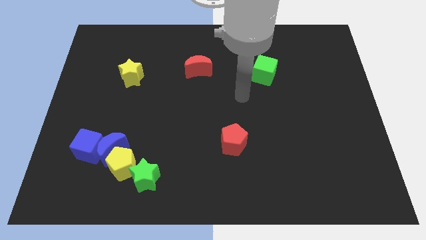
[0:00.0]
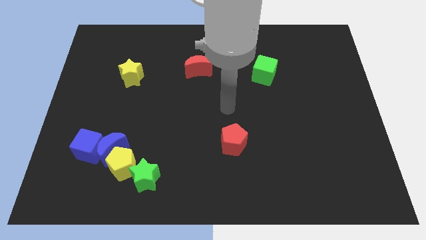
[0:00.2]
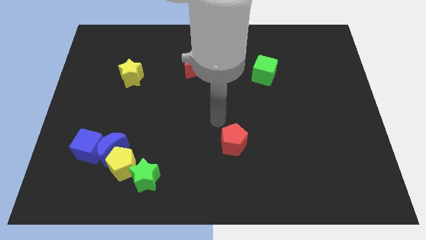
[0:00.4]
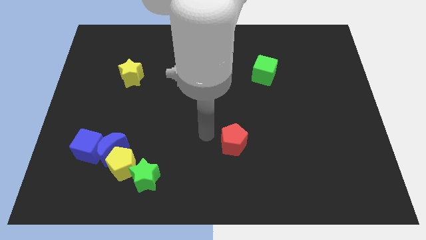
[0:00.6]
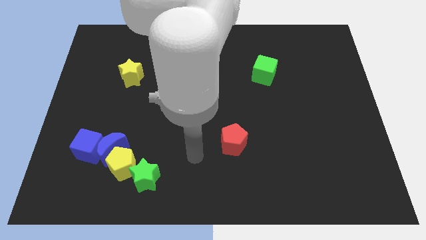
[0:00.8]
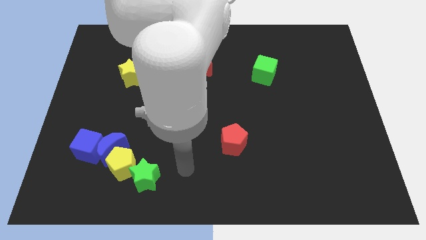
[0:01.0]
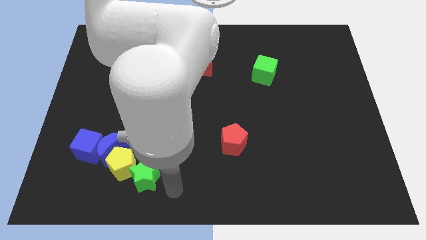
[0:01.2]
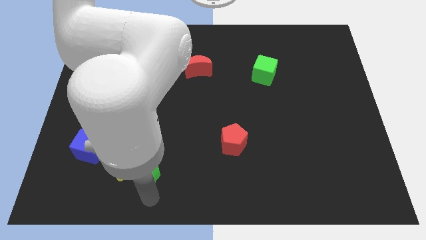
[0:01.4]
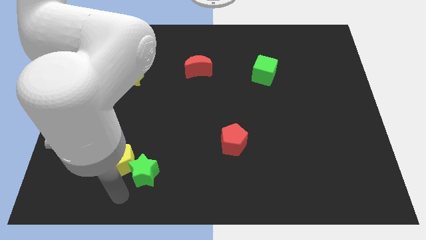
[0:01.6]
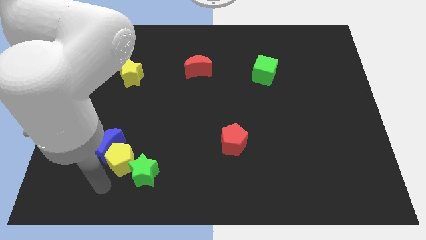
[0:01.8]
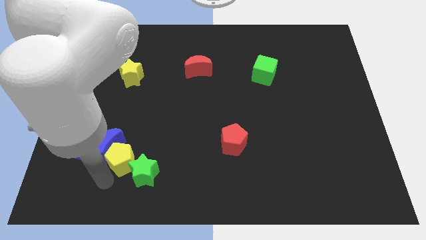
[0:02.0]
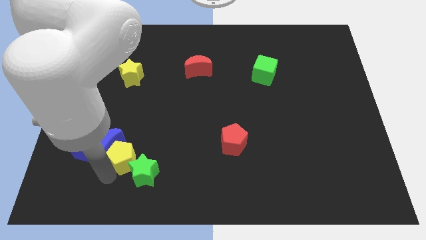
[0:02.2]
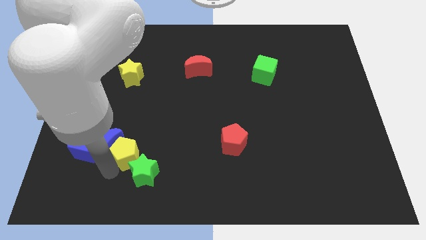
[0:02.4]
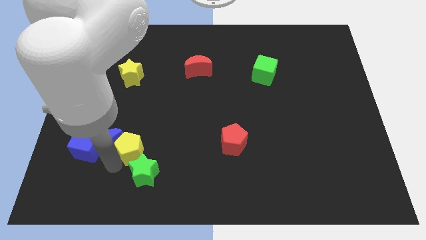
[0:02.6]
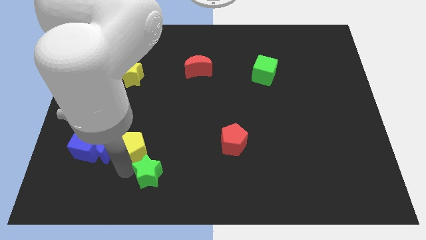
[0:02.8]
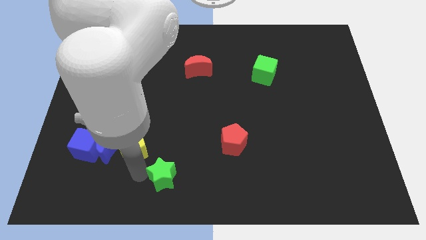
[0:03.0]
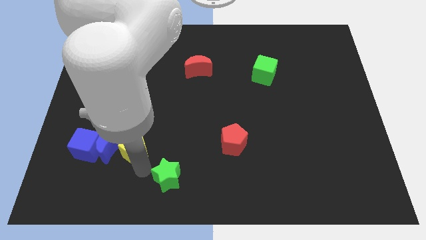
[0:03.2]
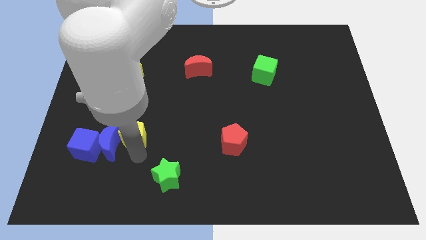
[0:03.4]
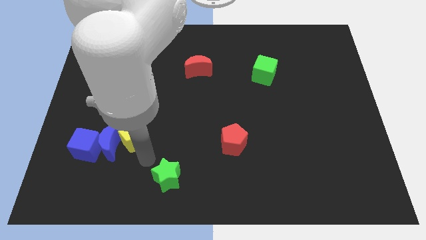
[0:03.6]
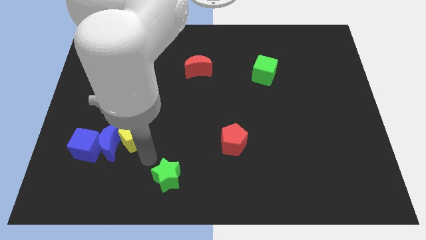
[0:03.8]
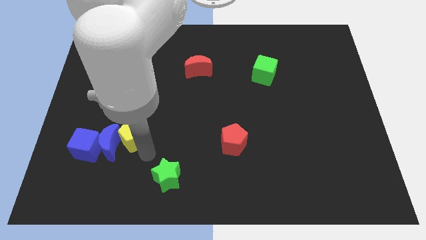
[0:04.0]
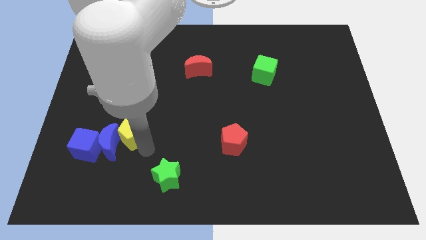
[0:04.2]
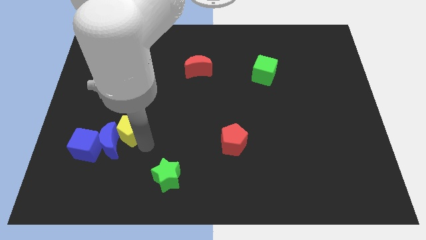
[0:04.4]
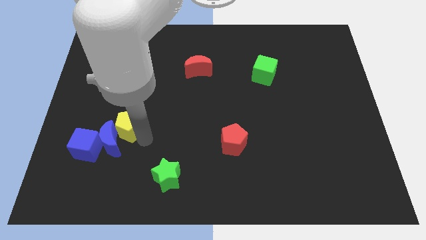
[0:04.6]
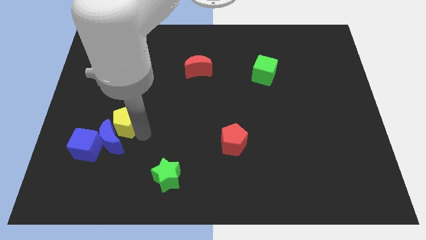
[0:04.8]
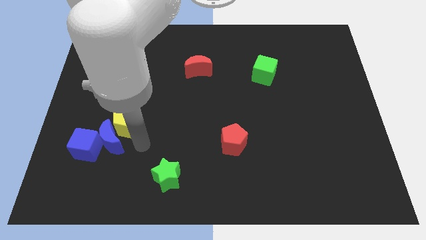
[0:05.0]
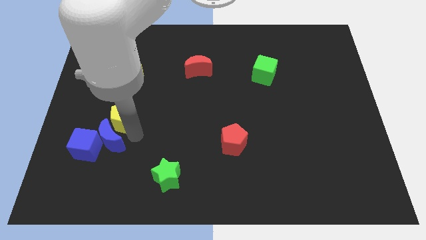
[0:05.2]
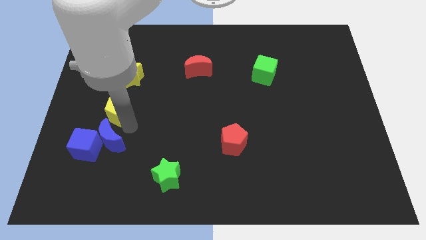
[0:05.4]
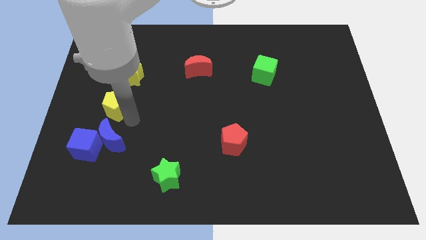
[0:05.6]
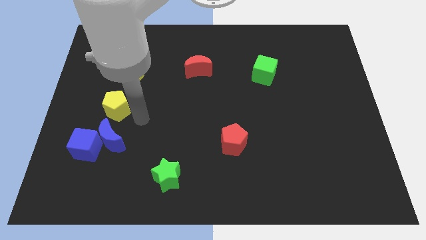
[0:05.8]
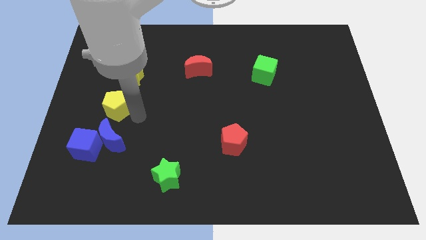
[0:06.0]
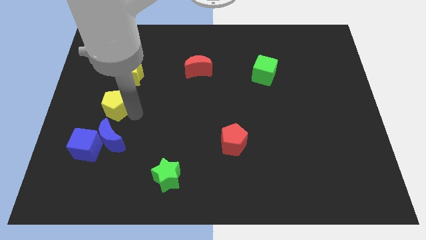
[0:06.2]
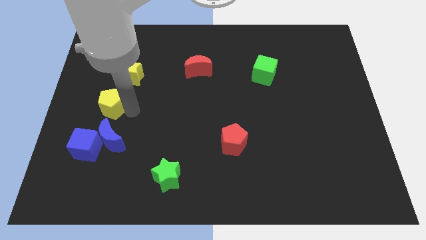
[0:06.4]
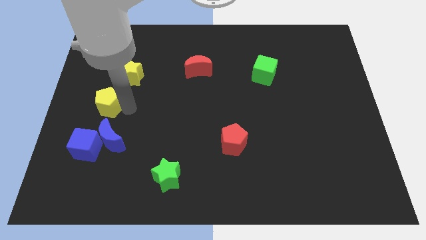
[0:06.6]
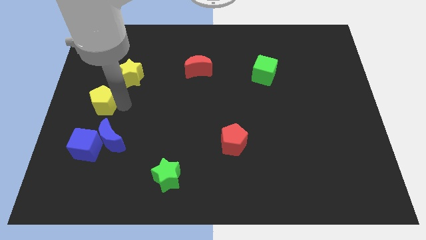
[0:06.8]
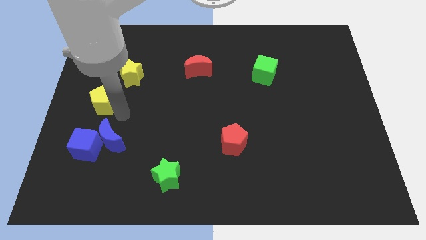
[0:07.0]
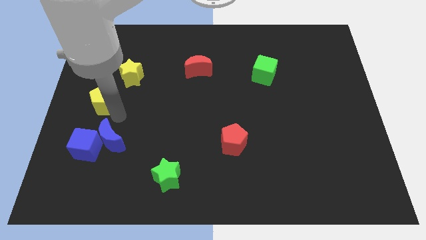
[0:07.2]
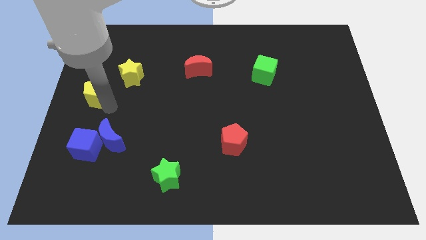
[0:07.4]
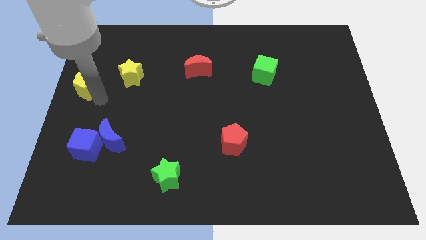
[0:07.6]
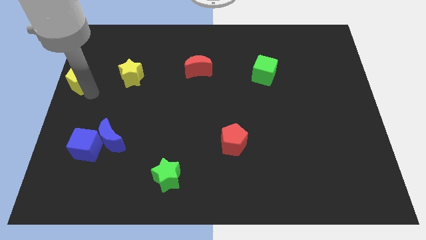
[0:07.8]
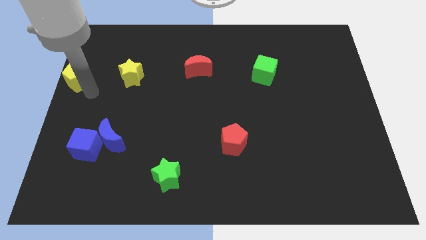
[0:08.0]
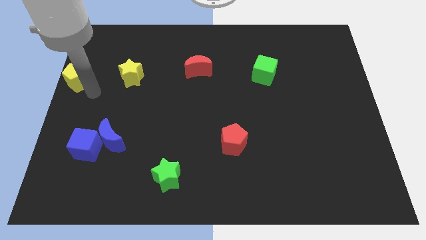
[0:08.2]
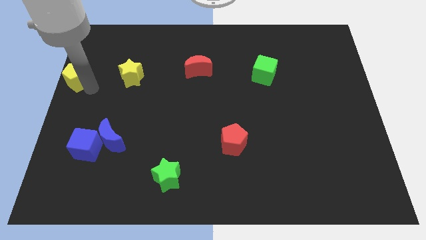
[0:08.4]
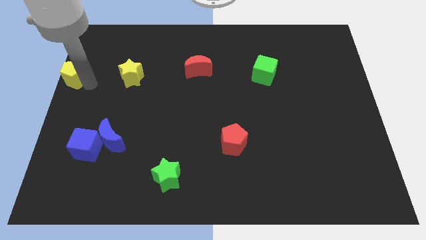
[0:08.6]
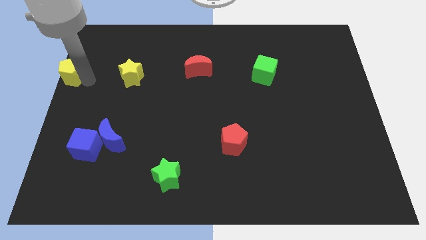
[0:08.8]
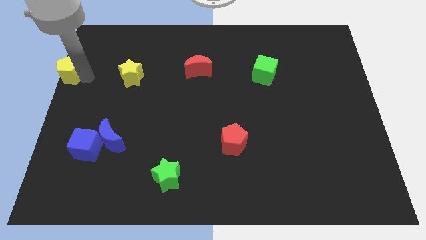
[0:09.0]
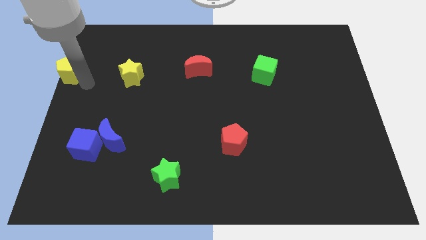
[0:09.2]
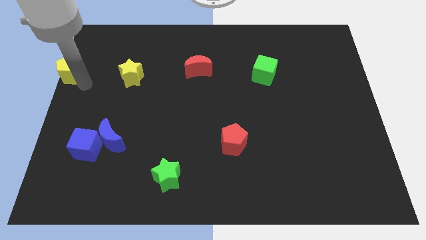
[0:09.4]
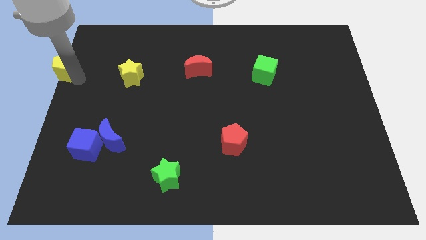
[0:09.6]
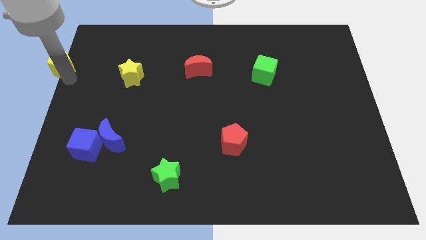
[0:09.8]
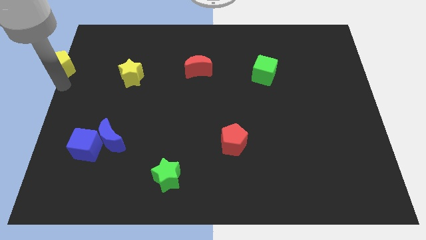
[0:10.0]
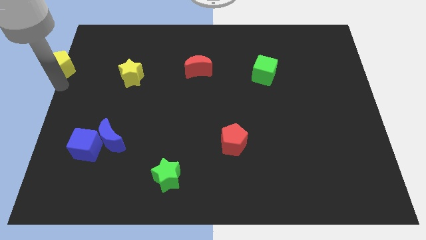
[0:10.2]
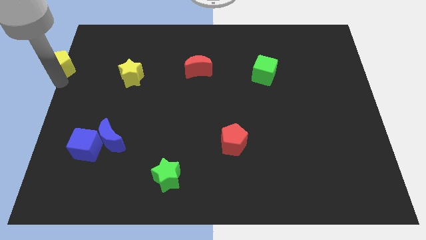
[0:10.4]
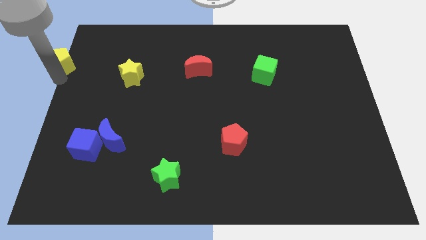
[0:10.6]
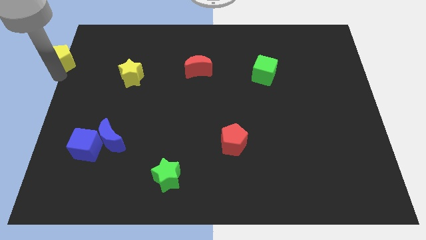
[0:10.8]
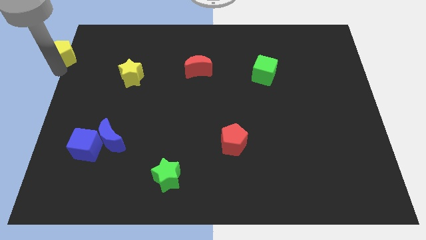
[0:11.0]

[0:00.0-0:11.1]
push the yellow pentagon to the upper left corner

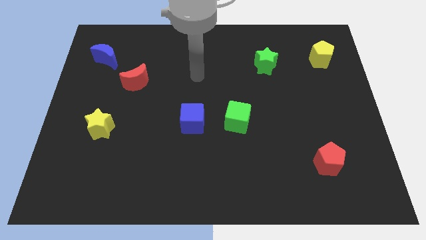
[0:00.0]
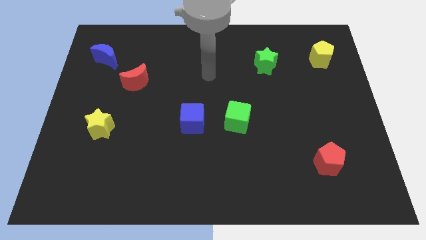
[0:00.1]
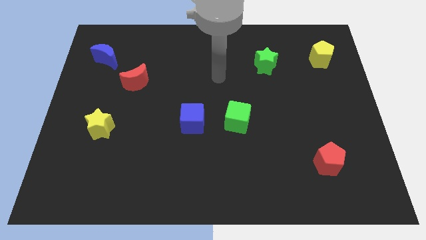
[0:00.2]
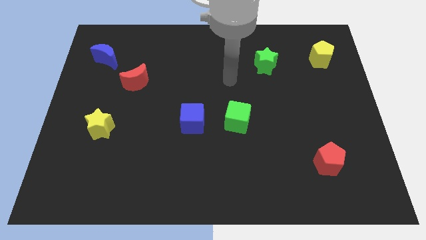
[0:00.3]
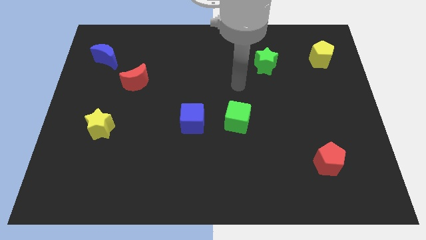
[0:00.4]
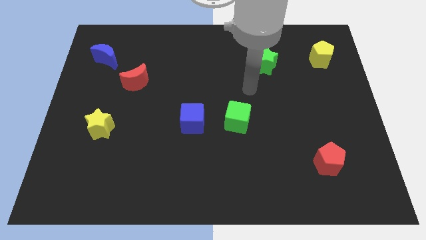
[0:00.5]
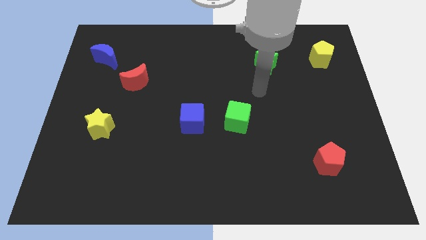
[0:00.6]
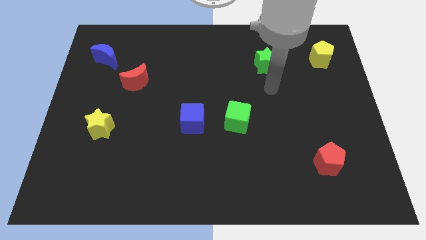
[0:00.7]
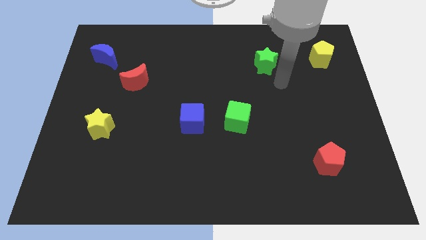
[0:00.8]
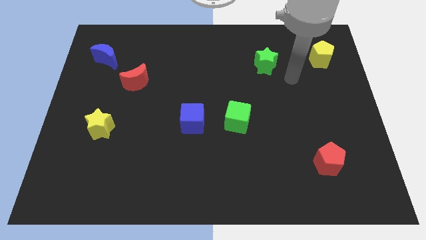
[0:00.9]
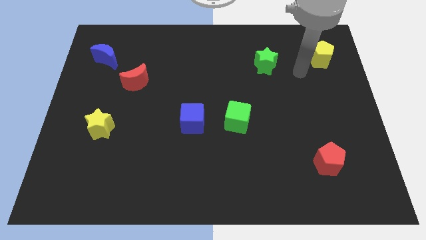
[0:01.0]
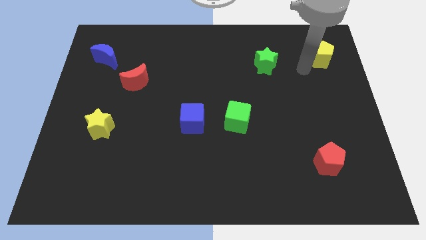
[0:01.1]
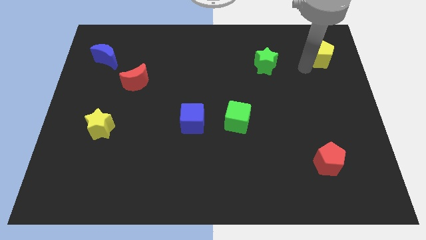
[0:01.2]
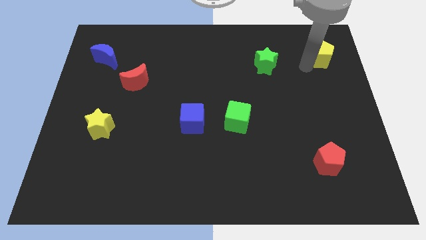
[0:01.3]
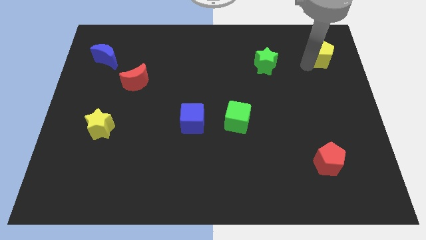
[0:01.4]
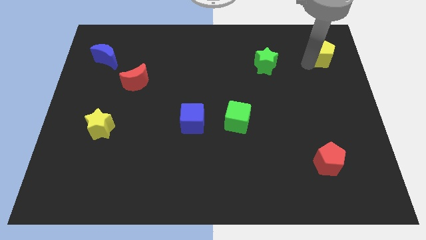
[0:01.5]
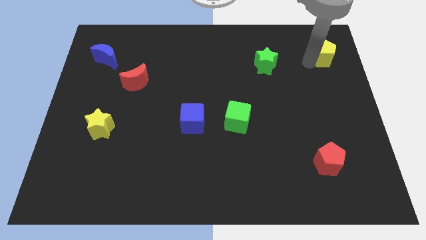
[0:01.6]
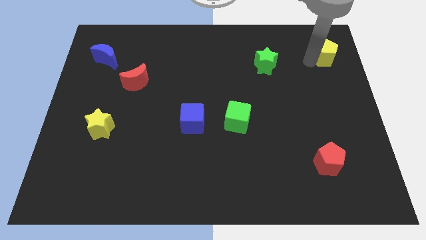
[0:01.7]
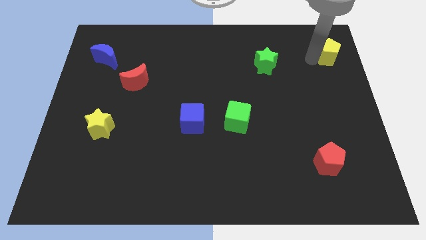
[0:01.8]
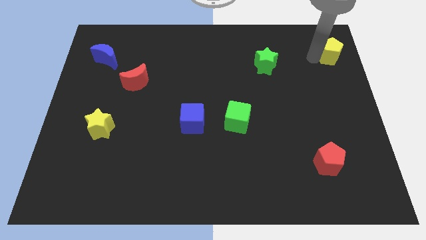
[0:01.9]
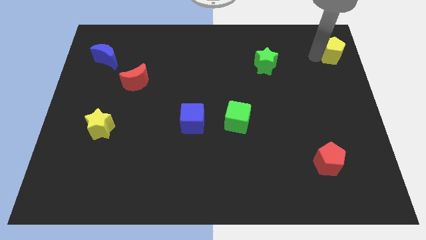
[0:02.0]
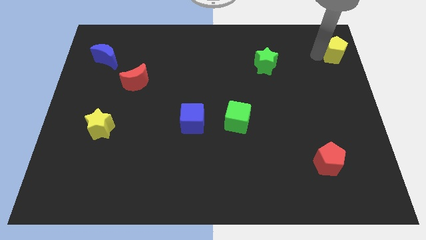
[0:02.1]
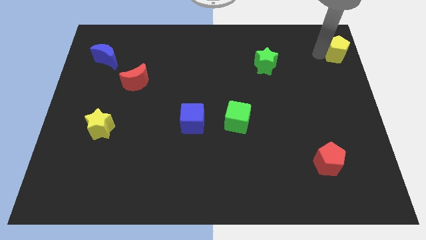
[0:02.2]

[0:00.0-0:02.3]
push the yellow pentagon to the upper right corner
